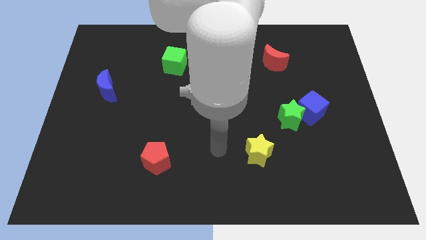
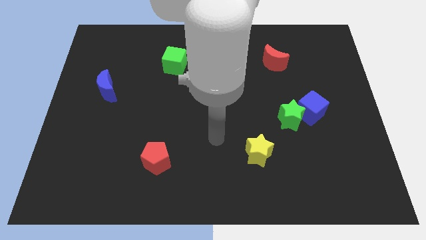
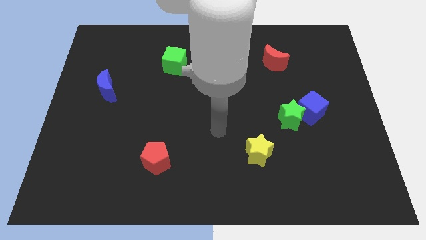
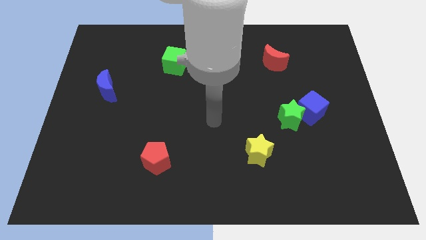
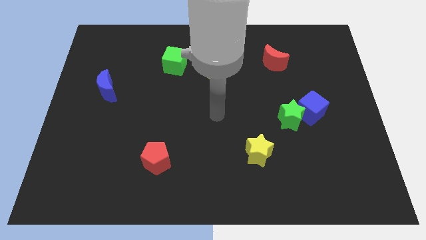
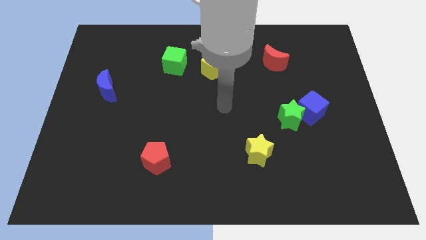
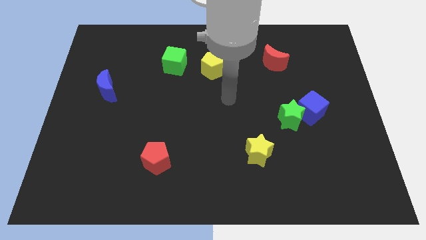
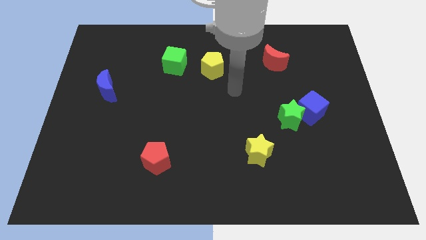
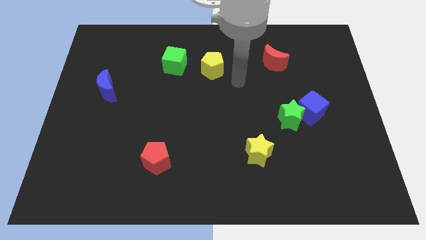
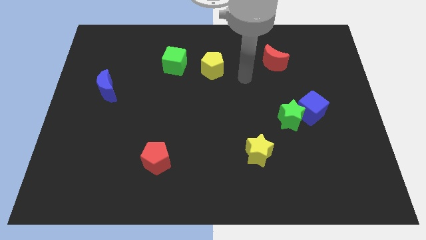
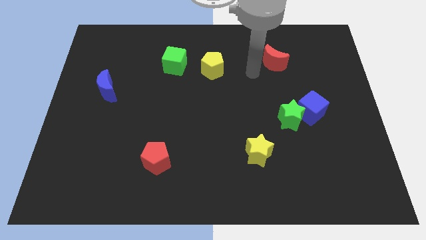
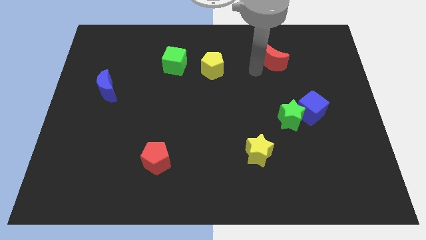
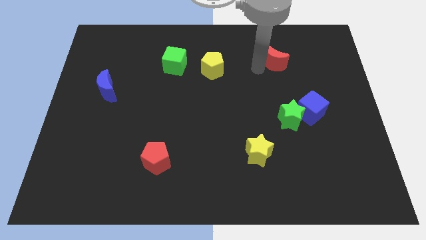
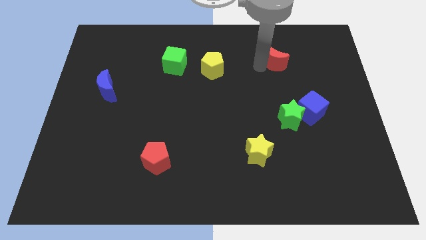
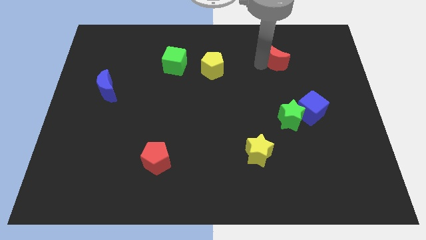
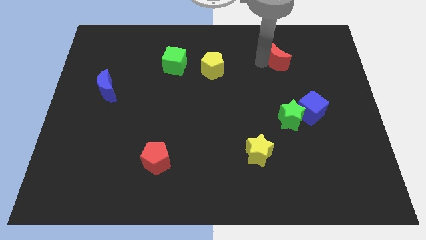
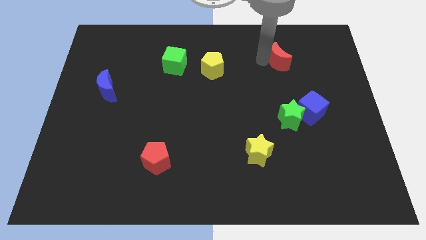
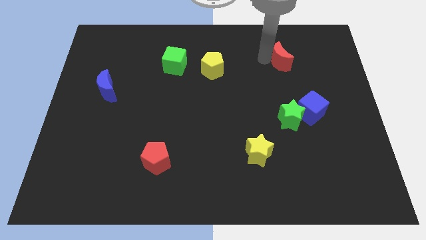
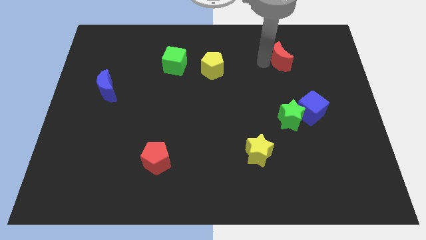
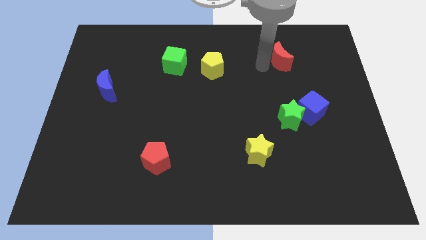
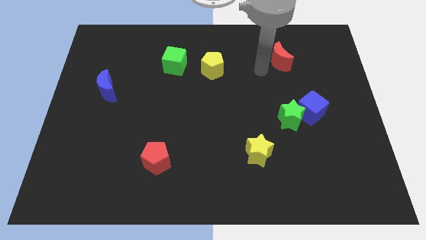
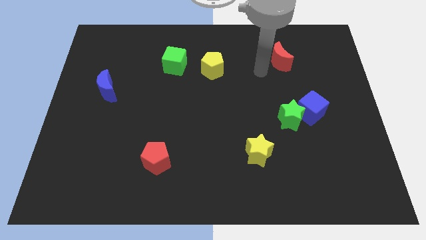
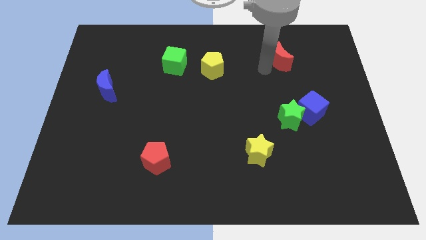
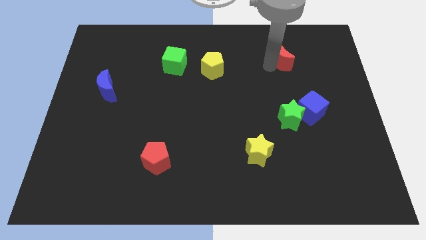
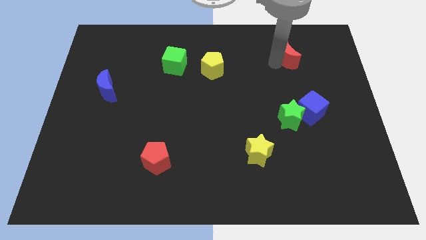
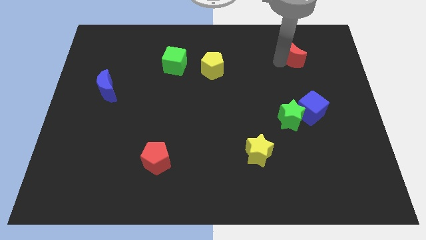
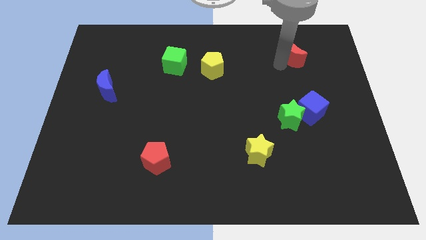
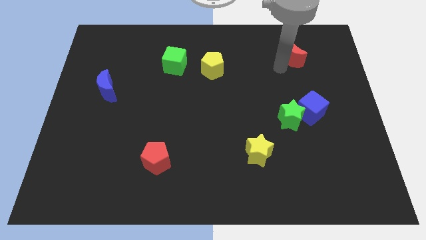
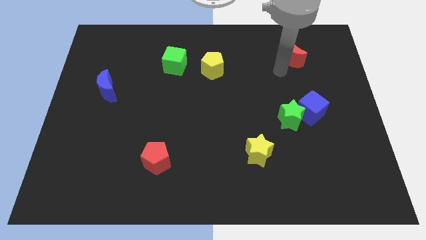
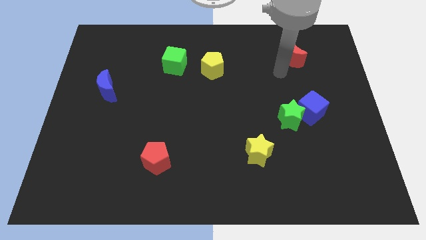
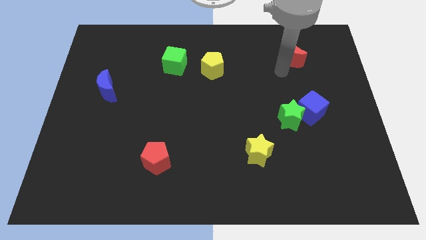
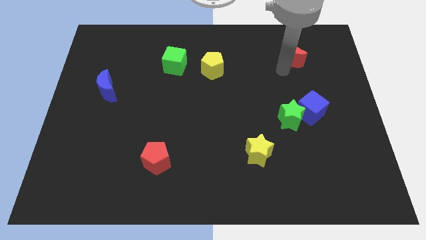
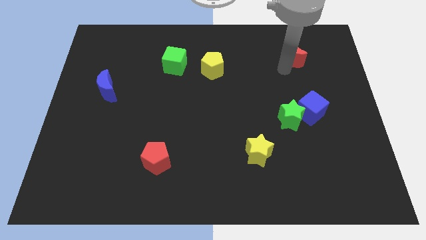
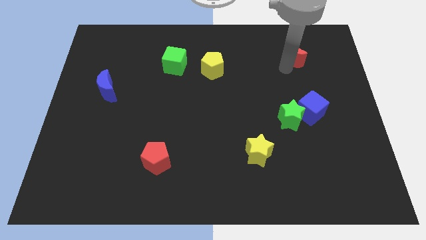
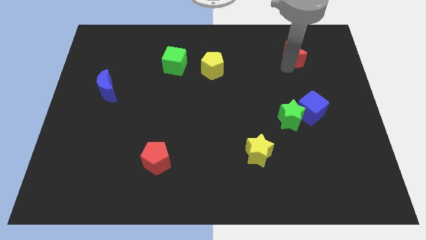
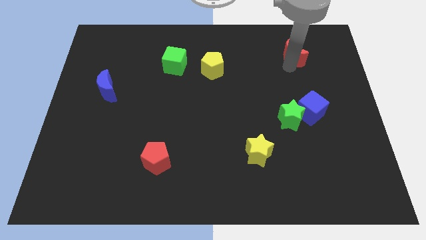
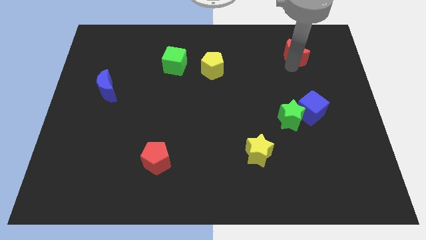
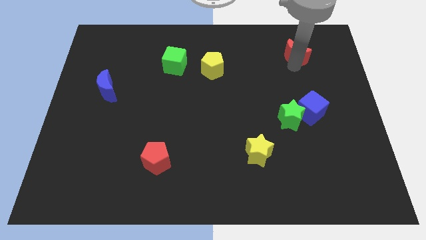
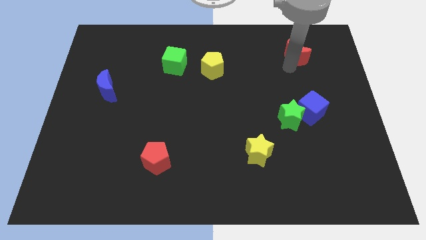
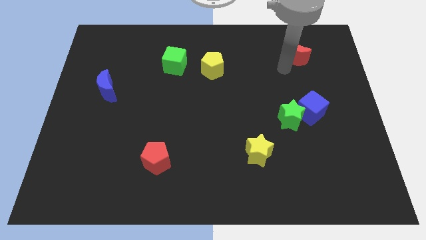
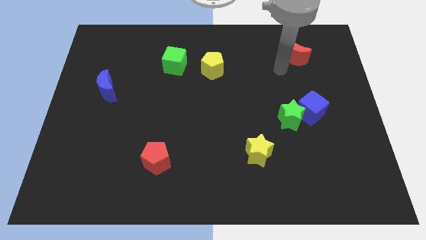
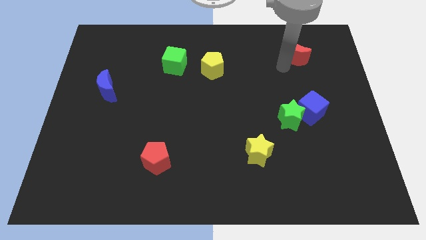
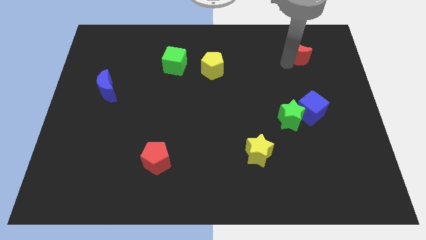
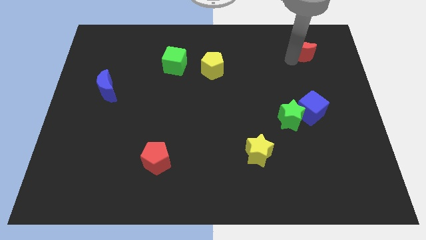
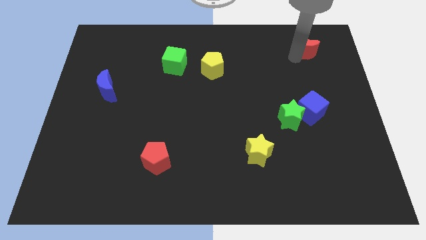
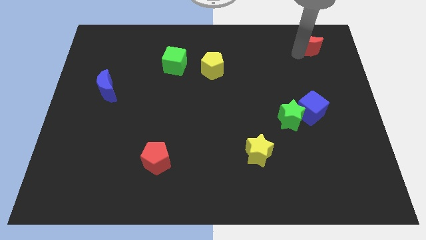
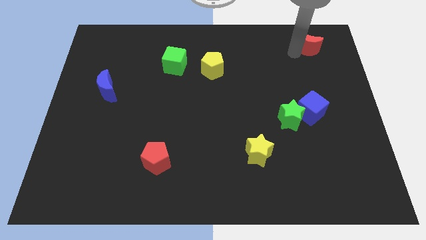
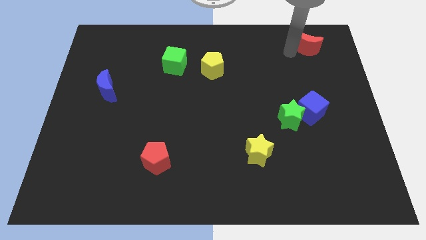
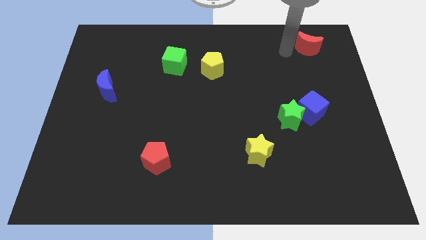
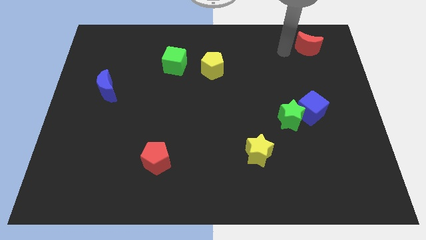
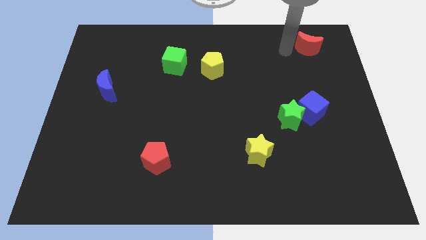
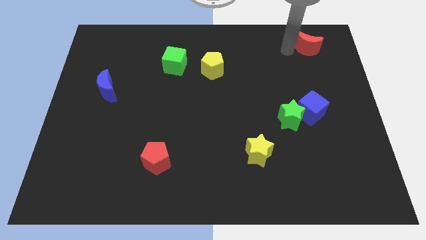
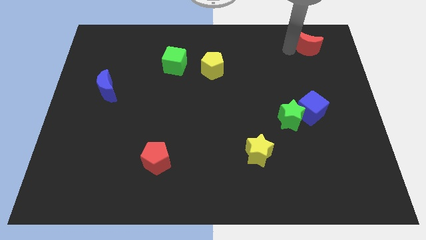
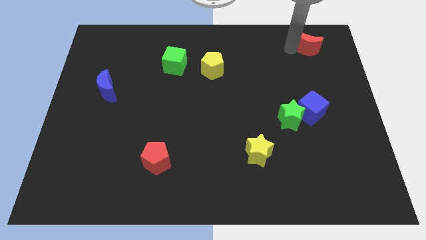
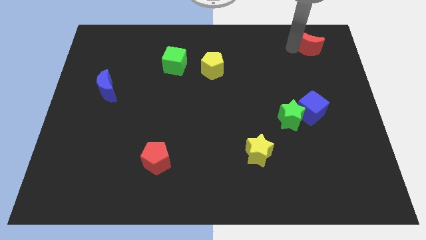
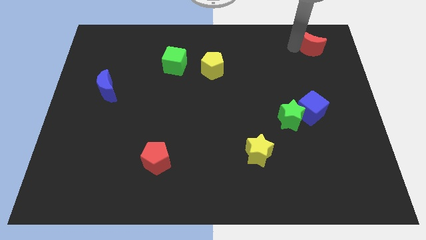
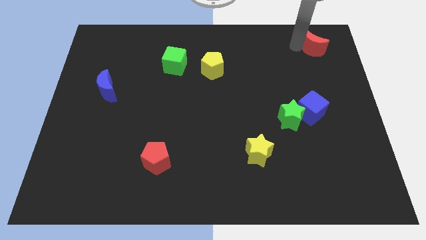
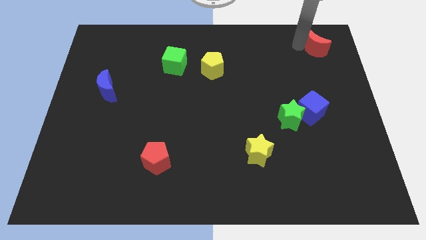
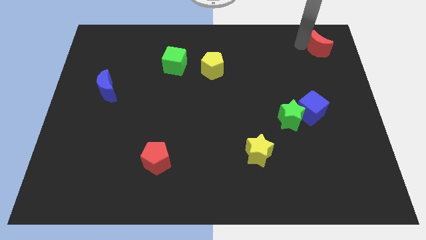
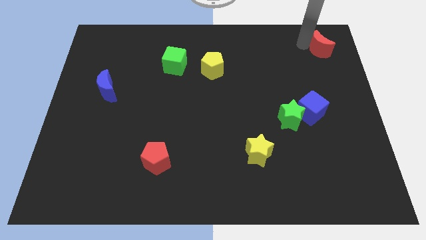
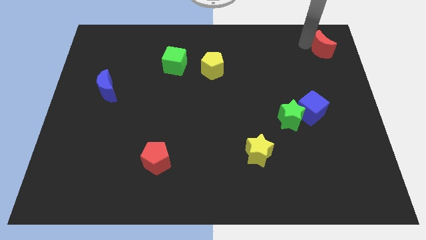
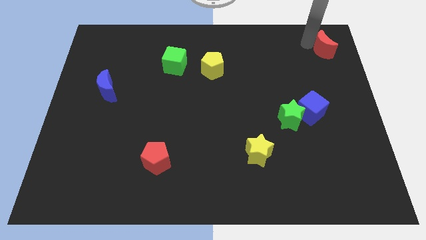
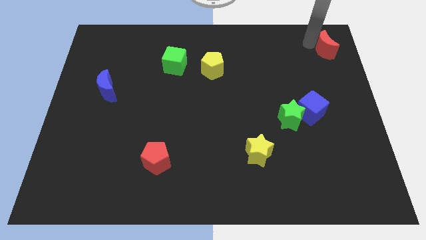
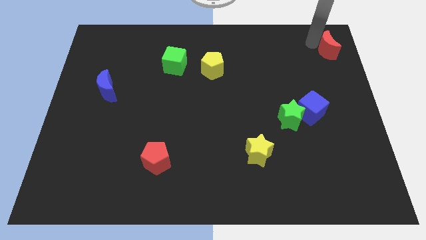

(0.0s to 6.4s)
put the red moon to the top right of the board
